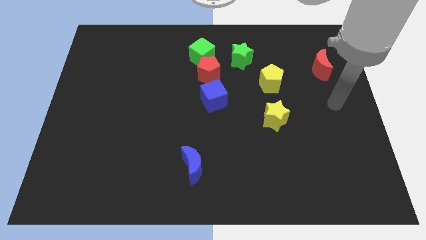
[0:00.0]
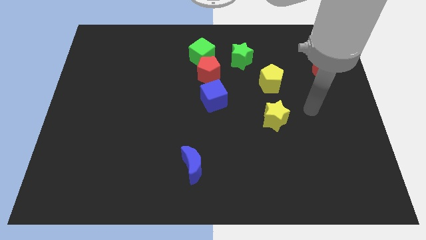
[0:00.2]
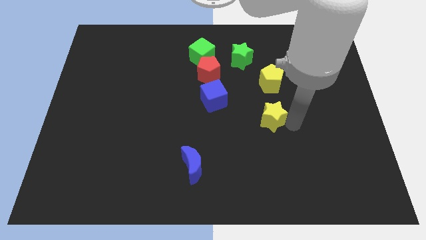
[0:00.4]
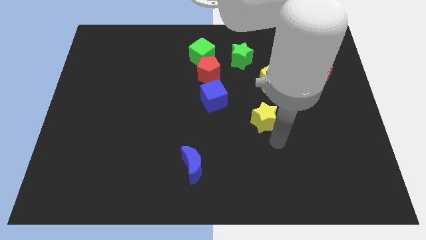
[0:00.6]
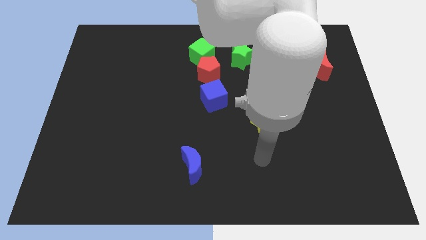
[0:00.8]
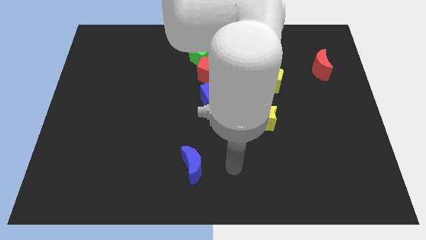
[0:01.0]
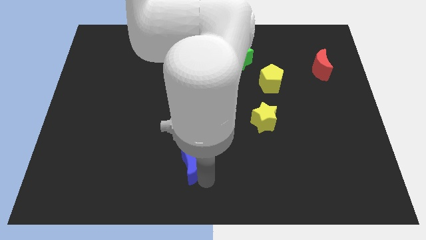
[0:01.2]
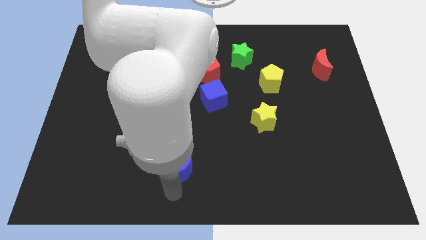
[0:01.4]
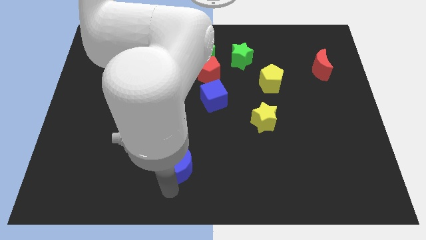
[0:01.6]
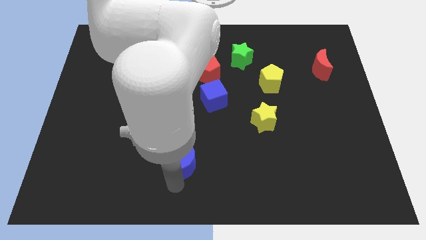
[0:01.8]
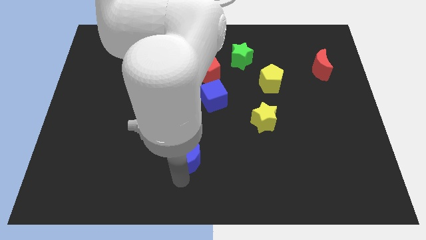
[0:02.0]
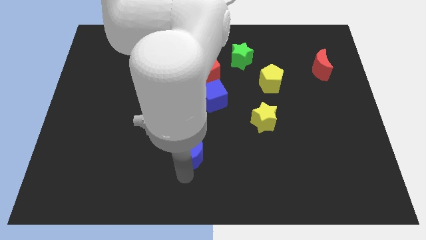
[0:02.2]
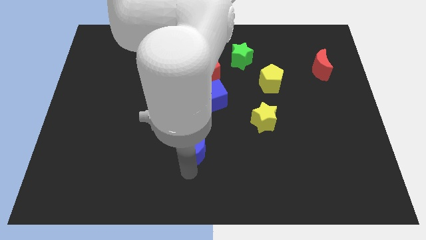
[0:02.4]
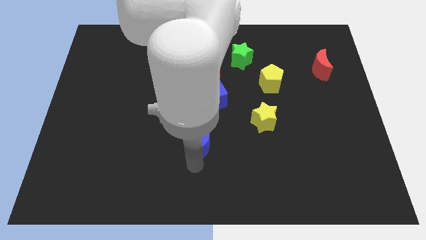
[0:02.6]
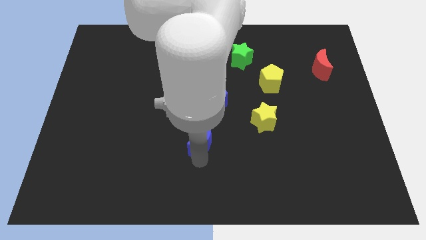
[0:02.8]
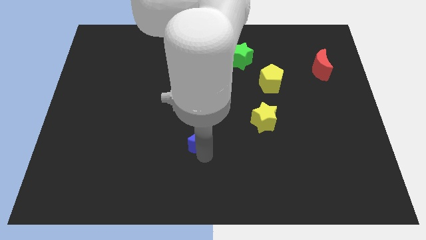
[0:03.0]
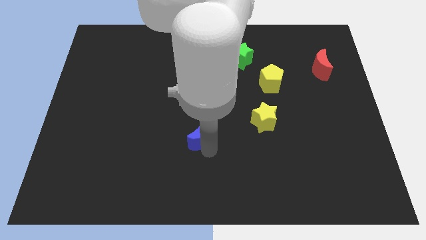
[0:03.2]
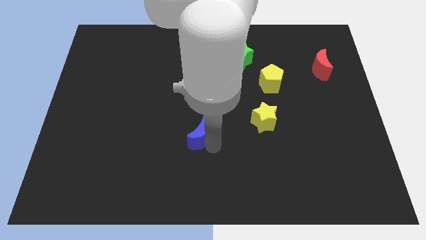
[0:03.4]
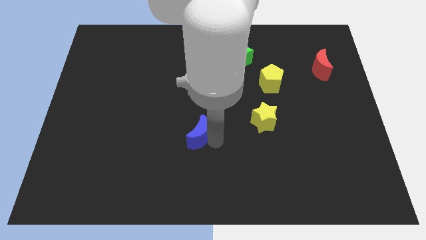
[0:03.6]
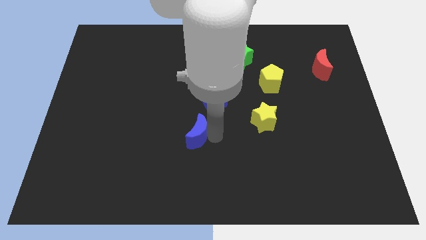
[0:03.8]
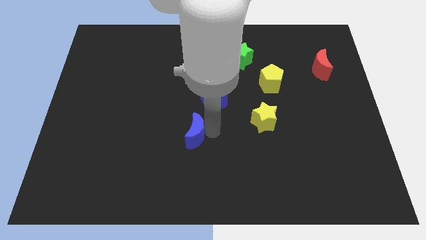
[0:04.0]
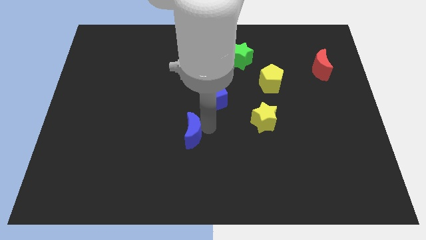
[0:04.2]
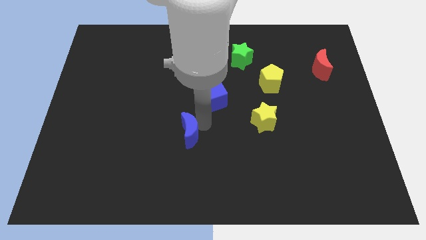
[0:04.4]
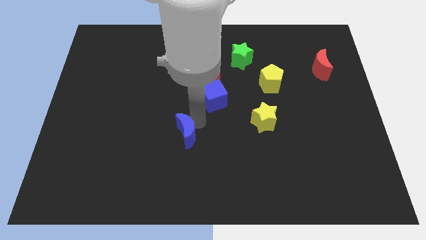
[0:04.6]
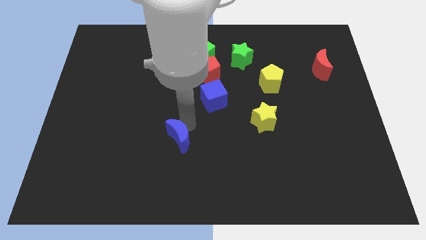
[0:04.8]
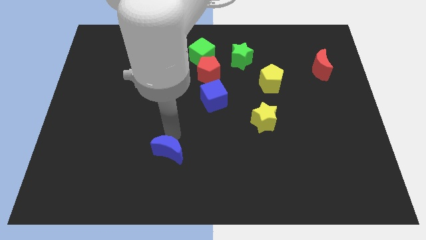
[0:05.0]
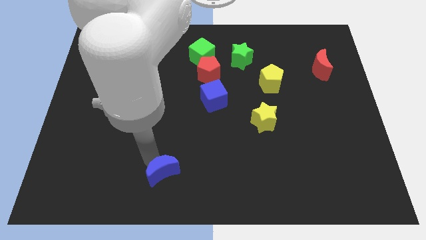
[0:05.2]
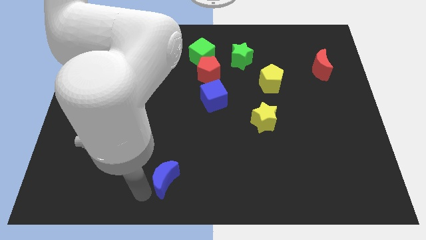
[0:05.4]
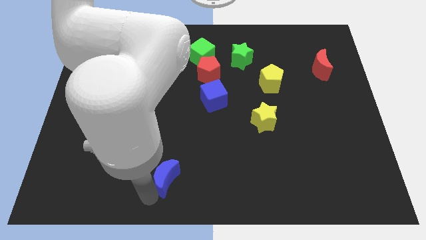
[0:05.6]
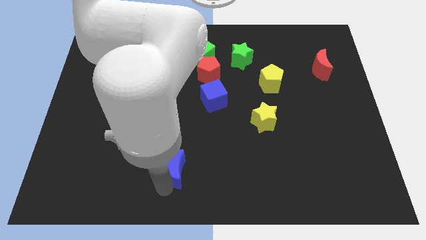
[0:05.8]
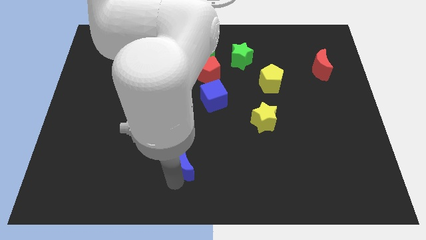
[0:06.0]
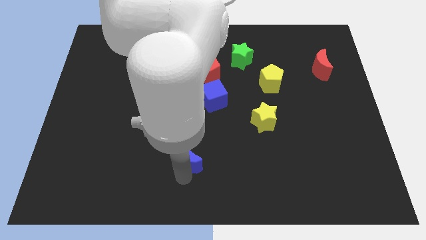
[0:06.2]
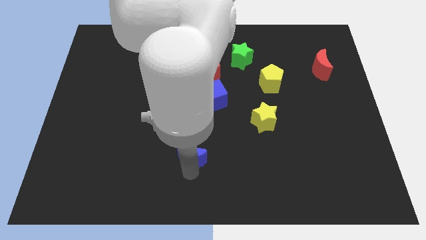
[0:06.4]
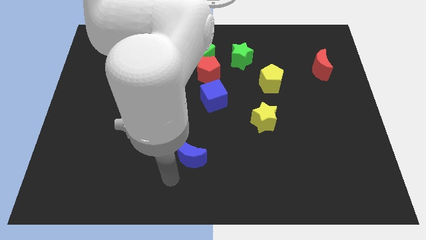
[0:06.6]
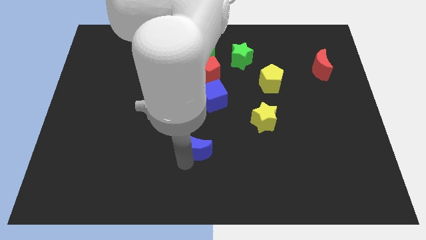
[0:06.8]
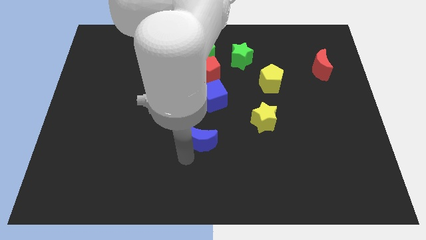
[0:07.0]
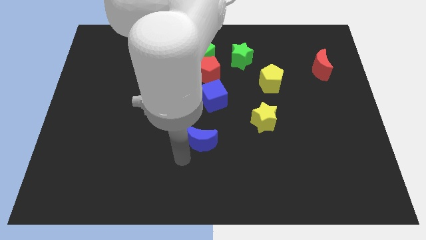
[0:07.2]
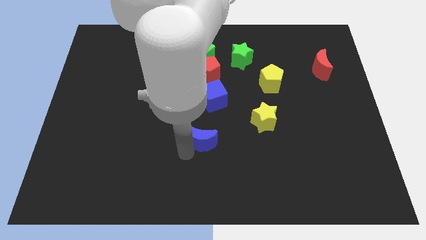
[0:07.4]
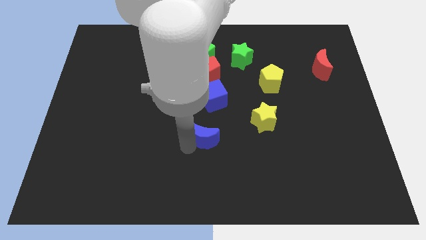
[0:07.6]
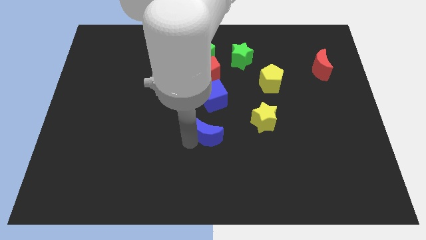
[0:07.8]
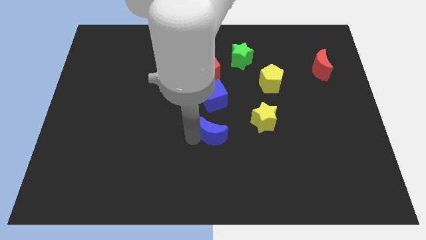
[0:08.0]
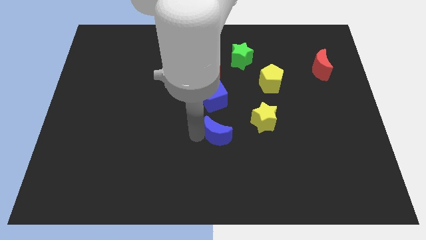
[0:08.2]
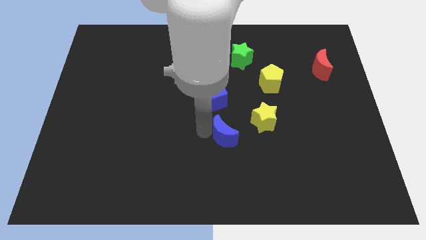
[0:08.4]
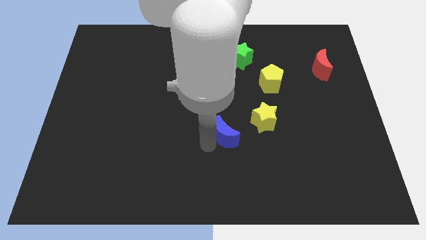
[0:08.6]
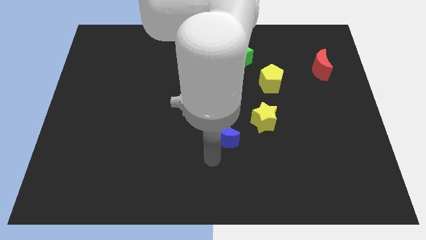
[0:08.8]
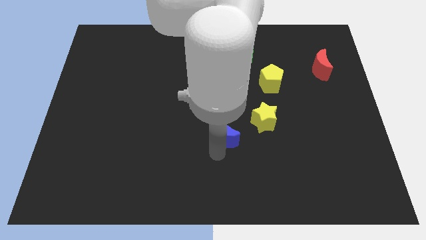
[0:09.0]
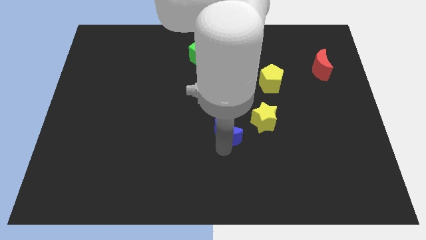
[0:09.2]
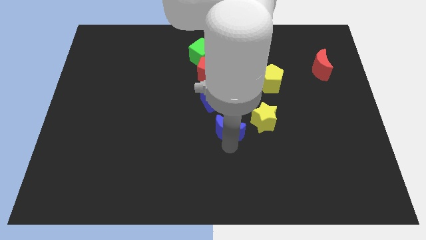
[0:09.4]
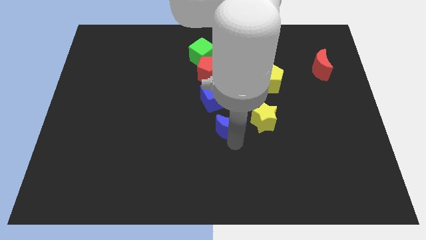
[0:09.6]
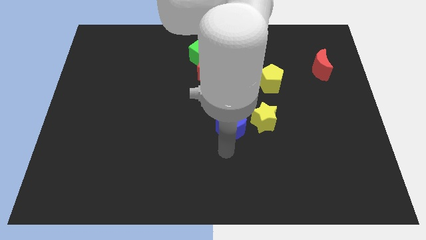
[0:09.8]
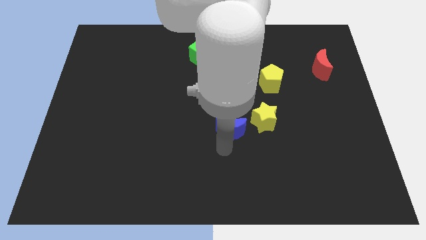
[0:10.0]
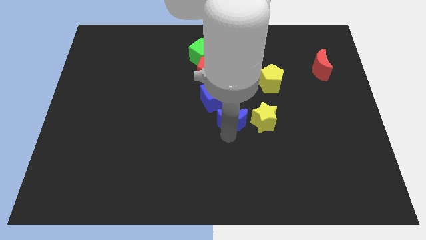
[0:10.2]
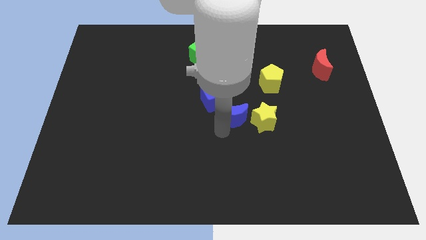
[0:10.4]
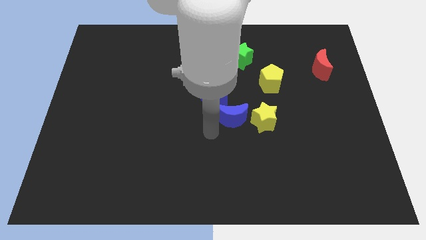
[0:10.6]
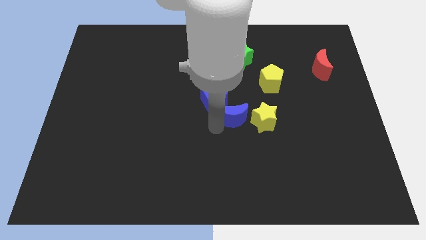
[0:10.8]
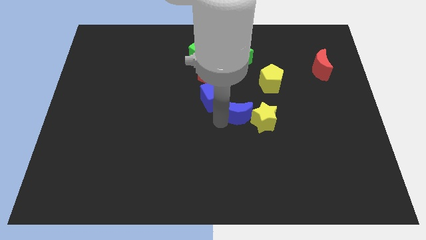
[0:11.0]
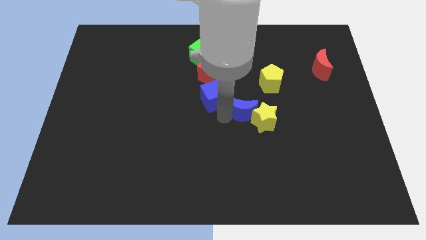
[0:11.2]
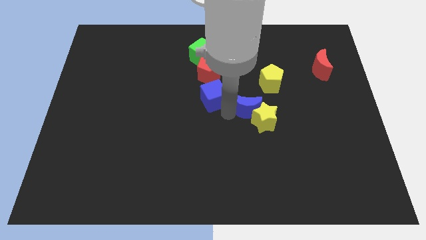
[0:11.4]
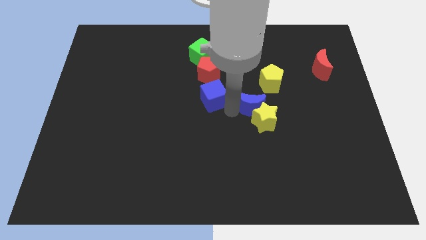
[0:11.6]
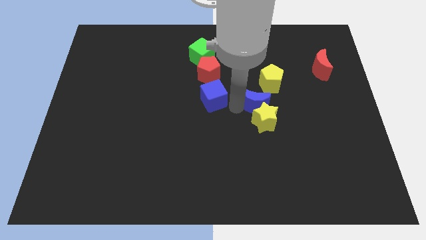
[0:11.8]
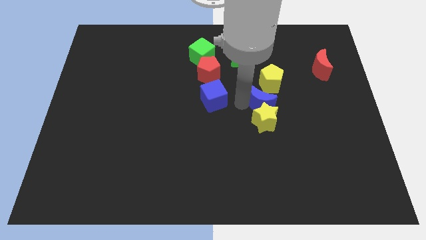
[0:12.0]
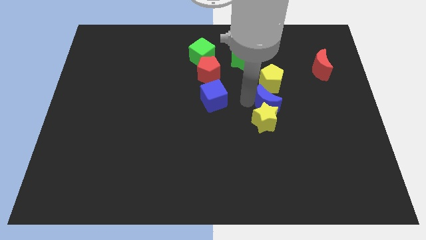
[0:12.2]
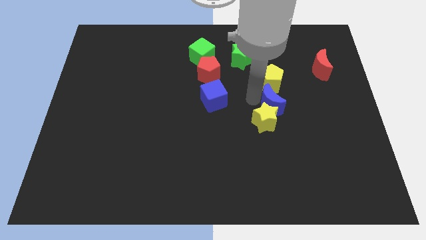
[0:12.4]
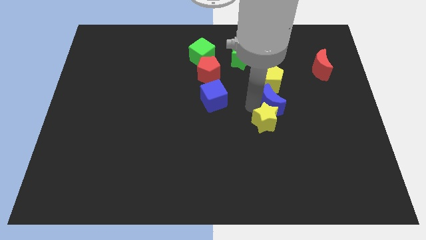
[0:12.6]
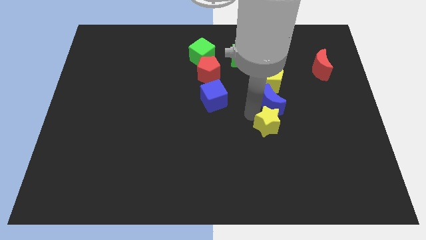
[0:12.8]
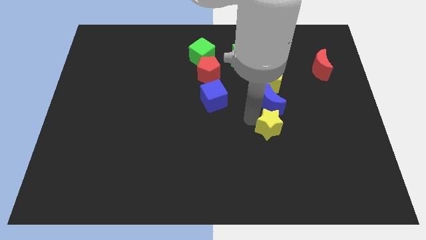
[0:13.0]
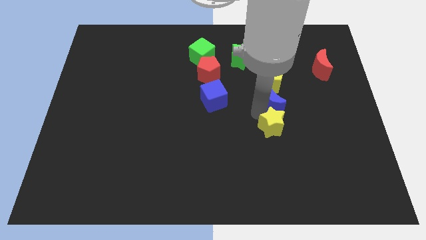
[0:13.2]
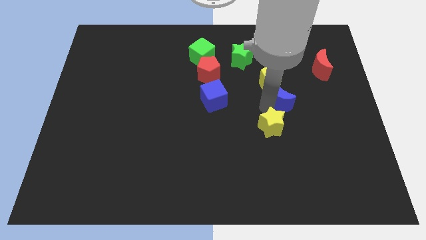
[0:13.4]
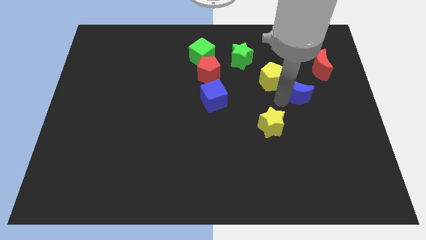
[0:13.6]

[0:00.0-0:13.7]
slide the blue moon right of the yellow pentagon

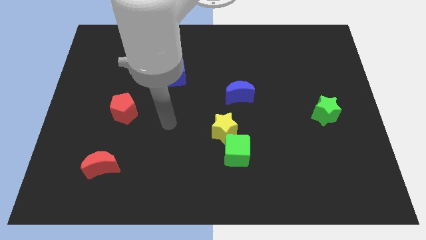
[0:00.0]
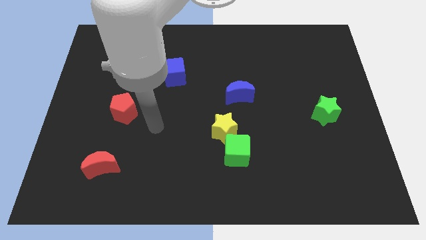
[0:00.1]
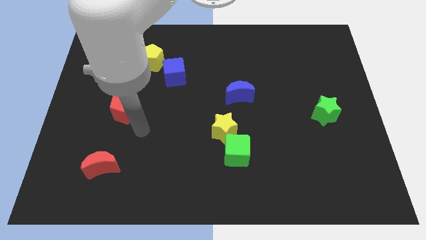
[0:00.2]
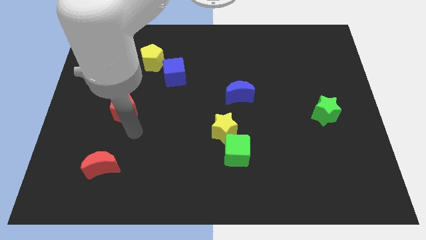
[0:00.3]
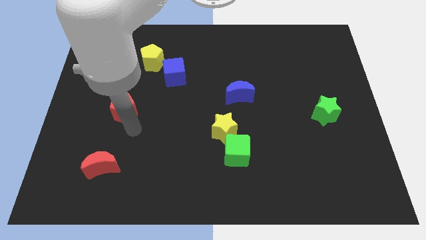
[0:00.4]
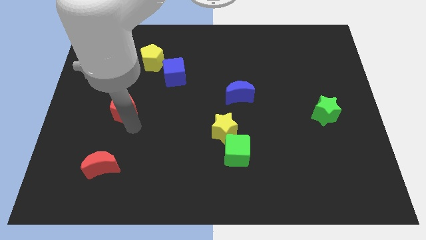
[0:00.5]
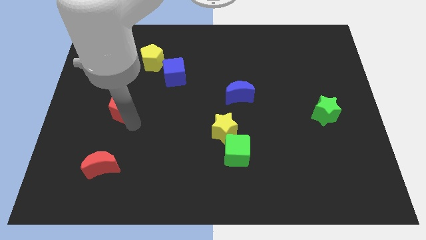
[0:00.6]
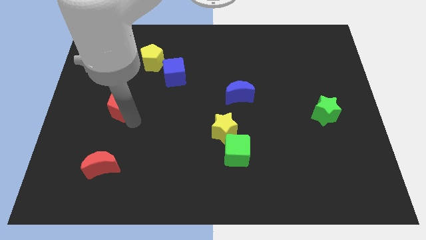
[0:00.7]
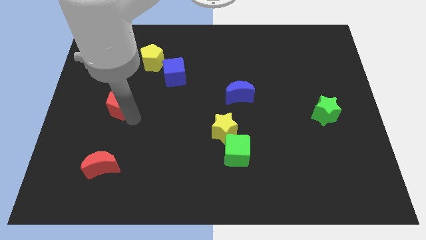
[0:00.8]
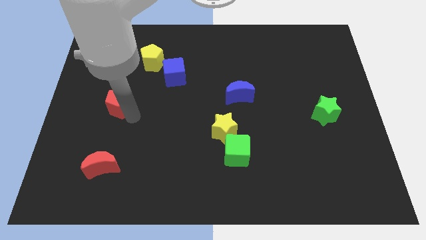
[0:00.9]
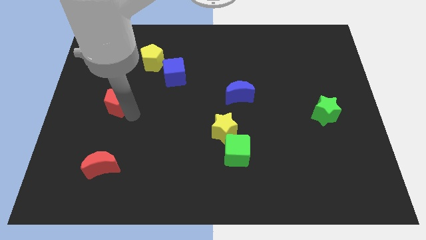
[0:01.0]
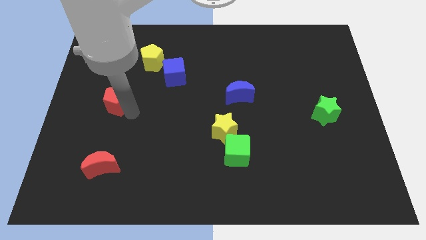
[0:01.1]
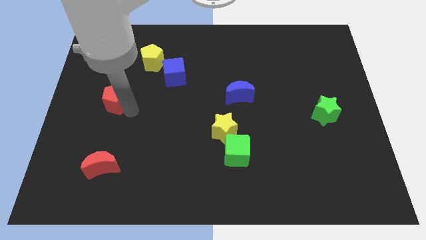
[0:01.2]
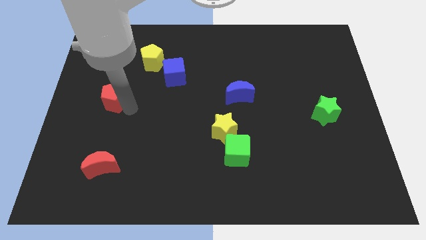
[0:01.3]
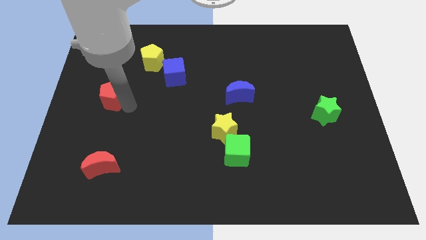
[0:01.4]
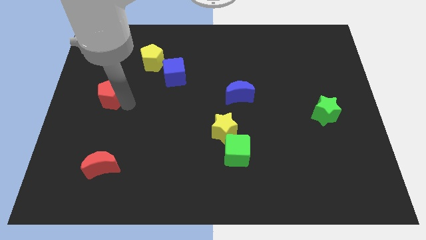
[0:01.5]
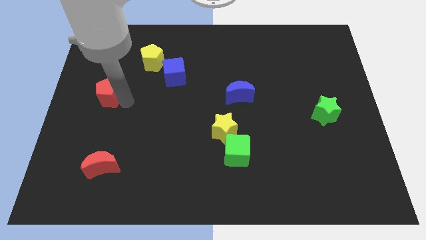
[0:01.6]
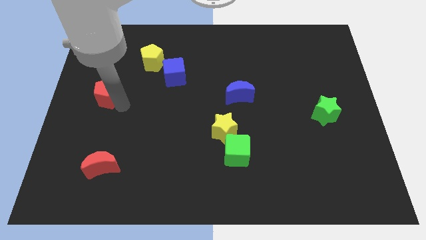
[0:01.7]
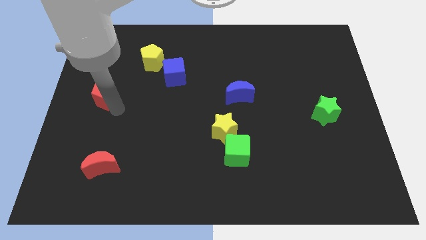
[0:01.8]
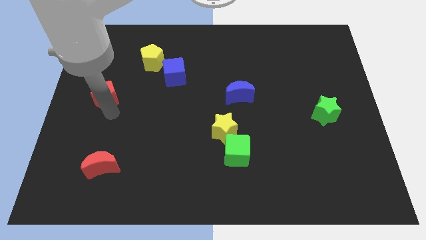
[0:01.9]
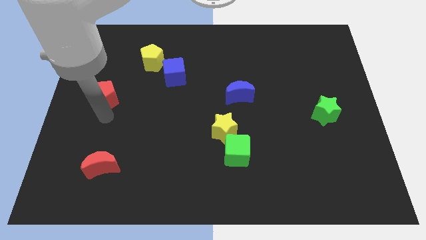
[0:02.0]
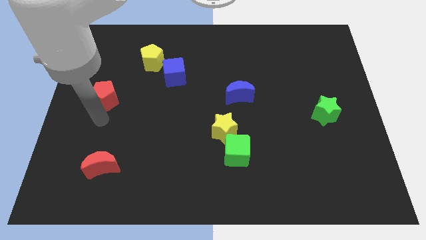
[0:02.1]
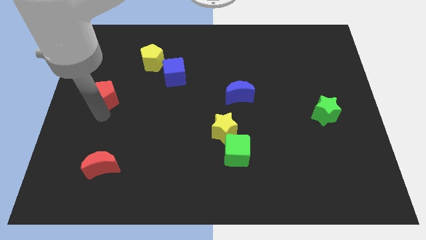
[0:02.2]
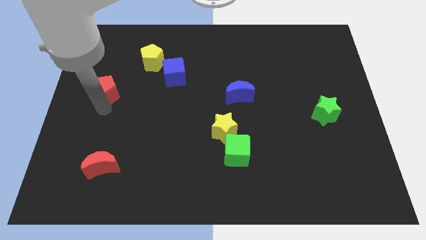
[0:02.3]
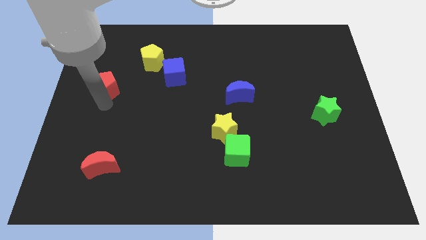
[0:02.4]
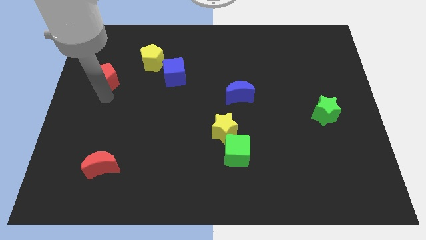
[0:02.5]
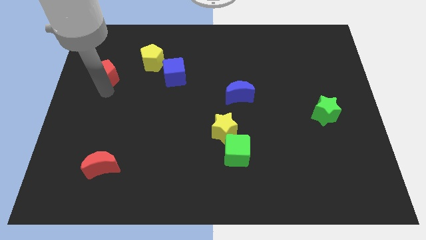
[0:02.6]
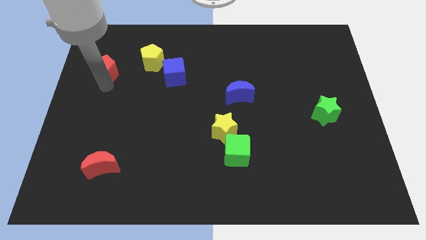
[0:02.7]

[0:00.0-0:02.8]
push the red pentagon just left of the yellow pentagon
